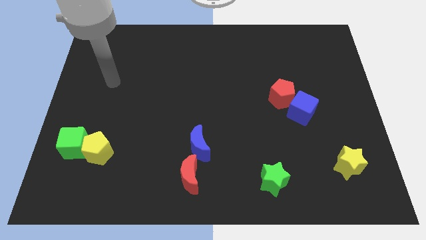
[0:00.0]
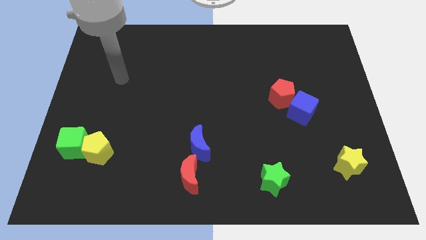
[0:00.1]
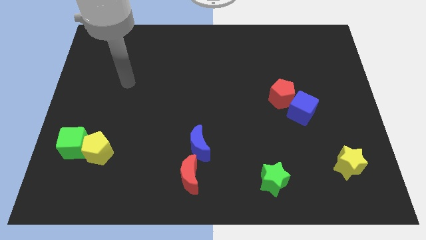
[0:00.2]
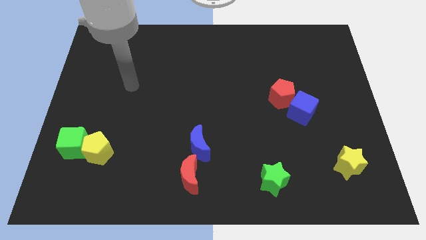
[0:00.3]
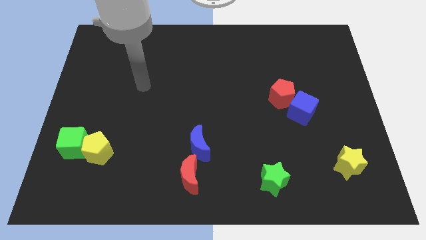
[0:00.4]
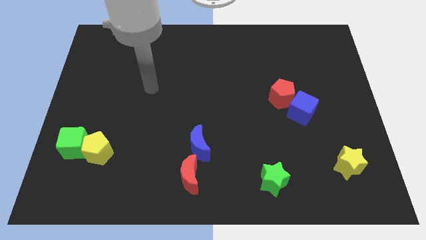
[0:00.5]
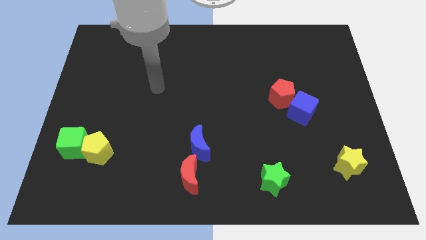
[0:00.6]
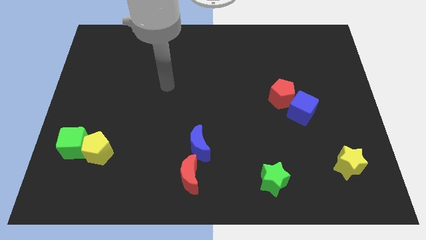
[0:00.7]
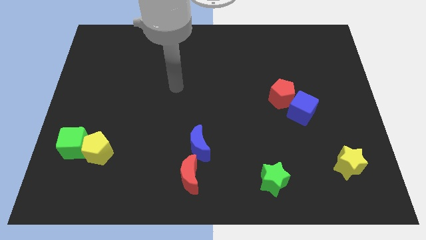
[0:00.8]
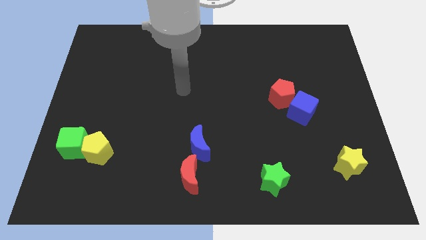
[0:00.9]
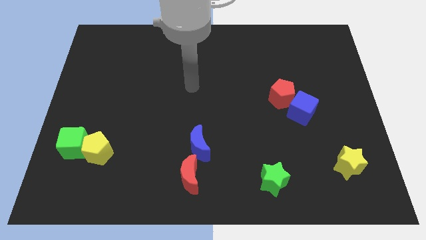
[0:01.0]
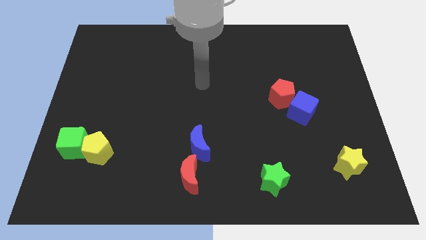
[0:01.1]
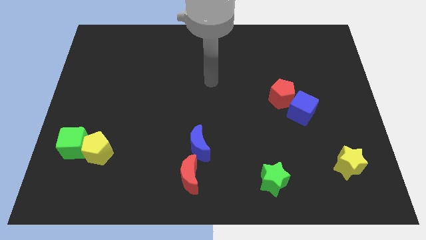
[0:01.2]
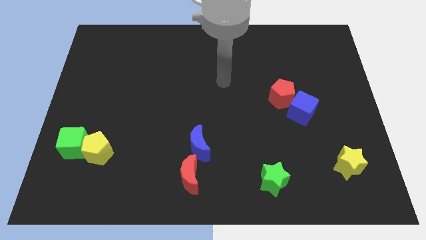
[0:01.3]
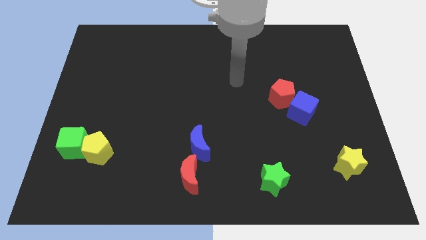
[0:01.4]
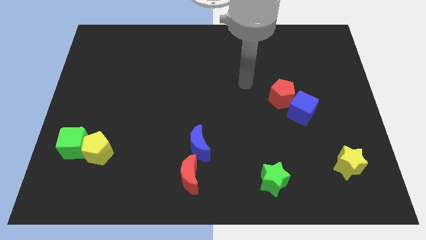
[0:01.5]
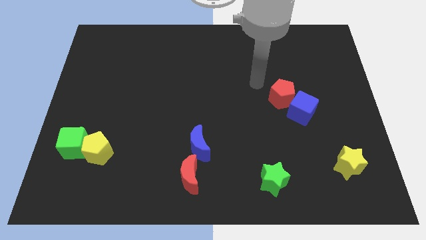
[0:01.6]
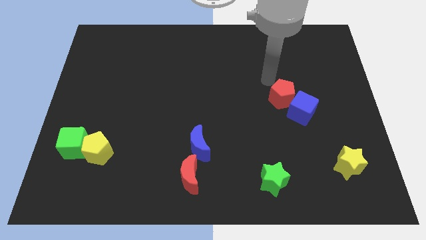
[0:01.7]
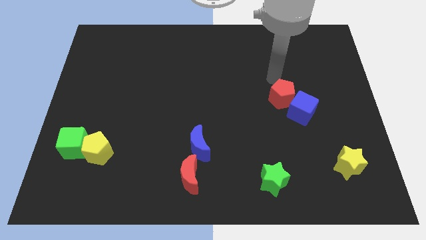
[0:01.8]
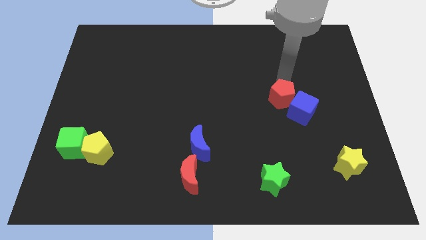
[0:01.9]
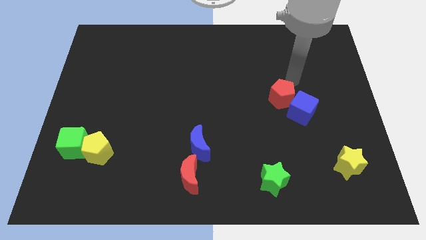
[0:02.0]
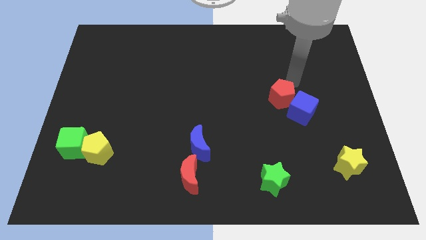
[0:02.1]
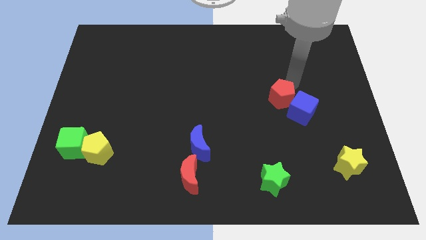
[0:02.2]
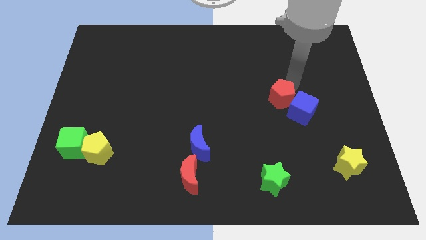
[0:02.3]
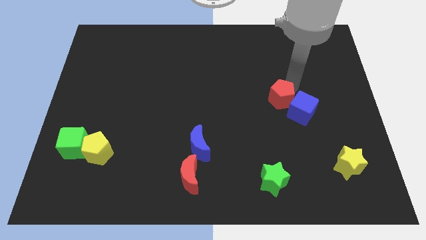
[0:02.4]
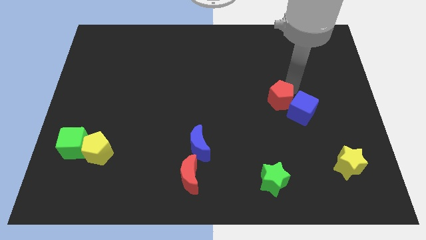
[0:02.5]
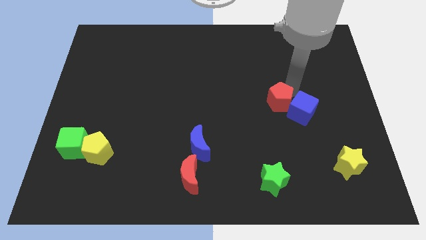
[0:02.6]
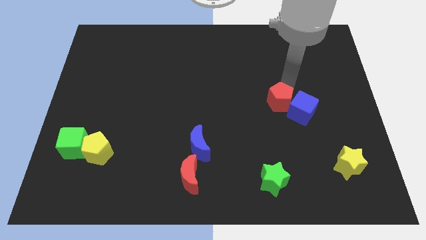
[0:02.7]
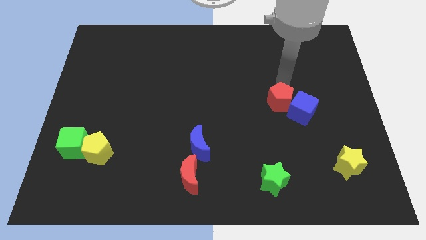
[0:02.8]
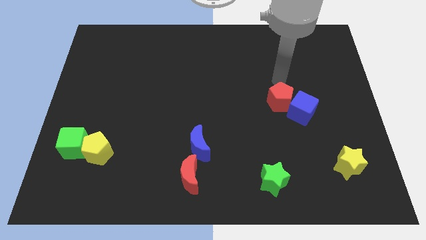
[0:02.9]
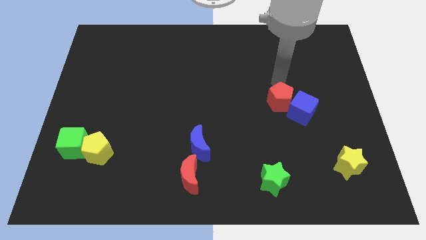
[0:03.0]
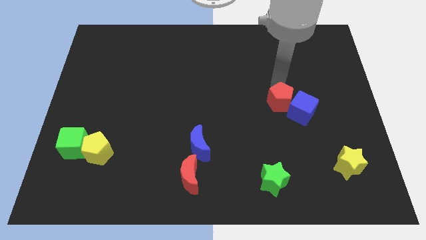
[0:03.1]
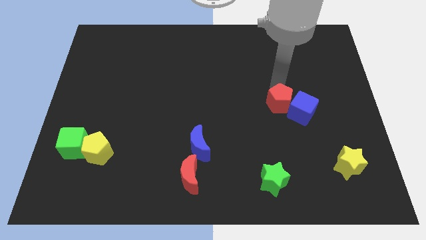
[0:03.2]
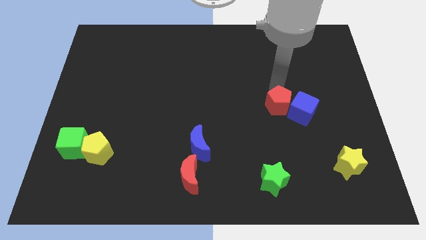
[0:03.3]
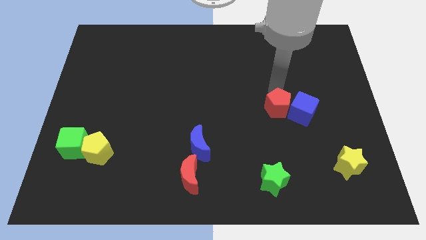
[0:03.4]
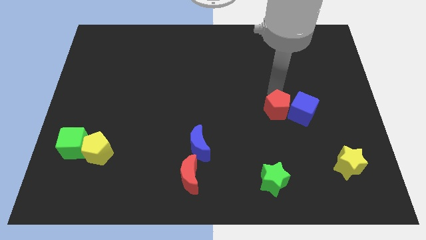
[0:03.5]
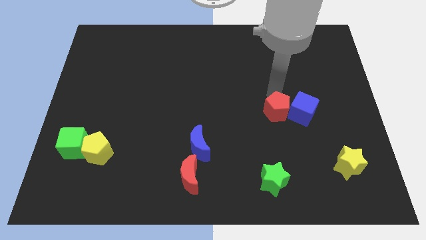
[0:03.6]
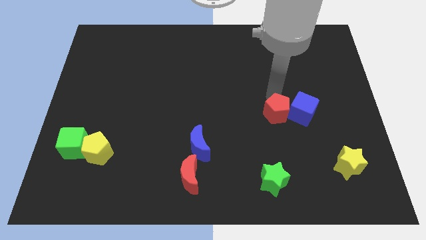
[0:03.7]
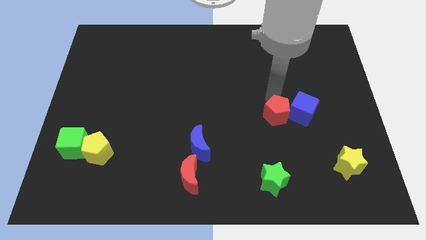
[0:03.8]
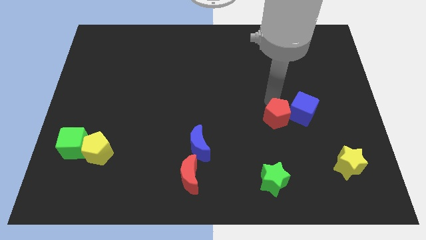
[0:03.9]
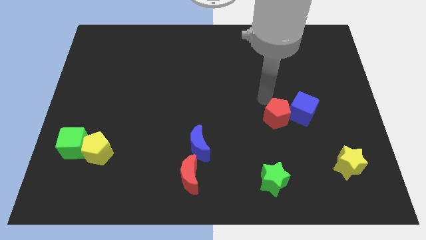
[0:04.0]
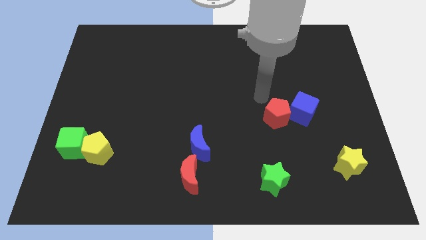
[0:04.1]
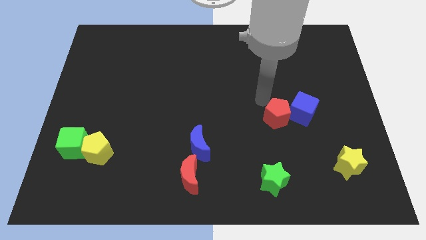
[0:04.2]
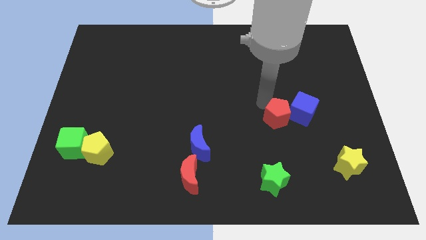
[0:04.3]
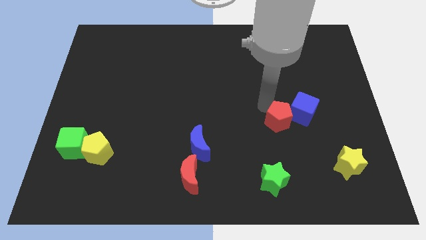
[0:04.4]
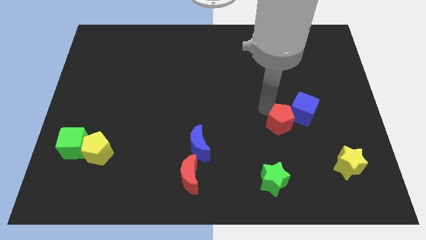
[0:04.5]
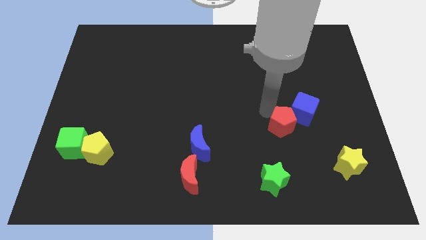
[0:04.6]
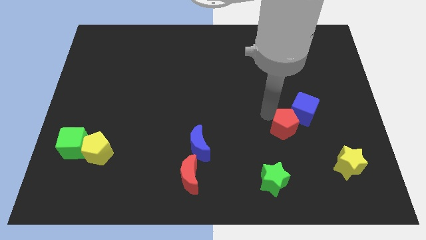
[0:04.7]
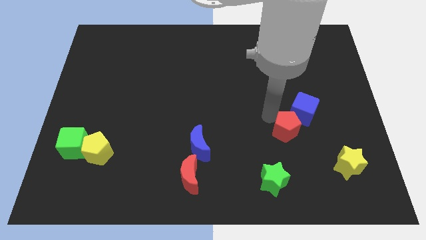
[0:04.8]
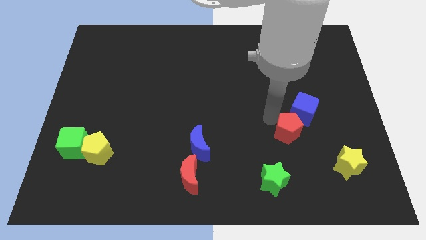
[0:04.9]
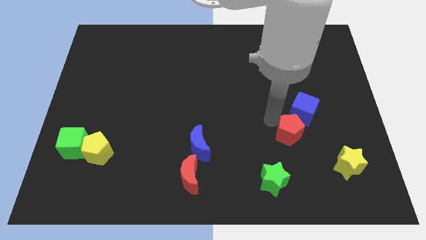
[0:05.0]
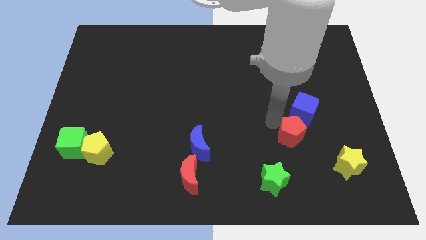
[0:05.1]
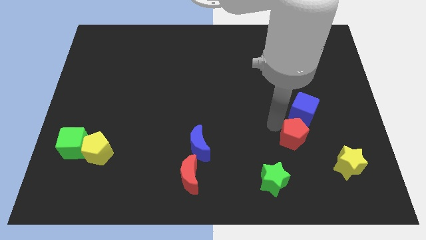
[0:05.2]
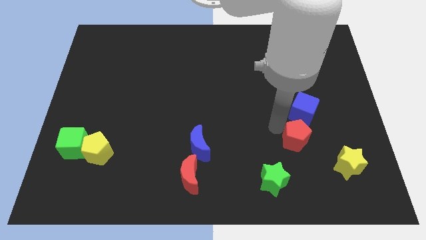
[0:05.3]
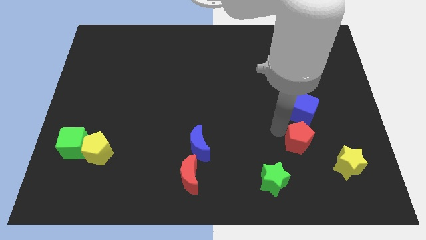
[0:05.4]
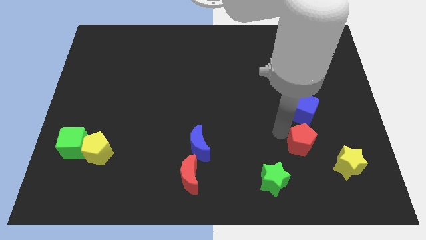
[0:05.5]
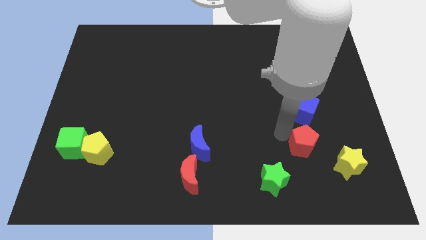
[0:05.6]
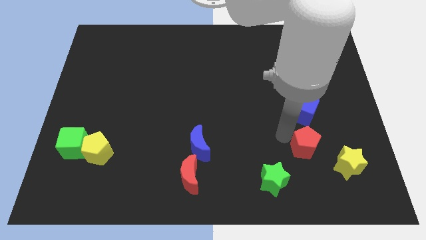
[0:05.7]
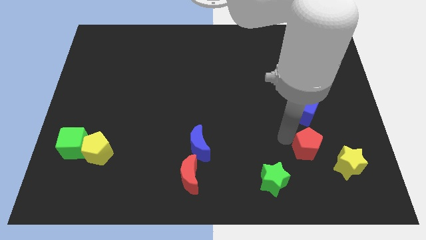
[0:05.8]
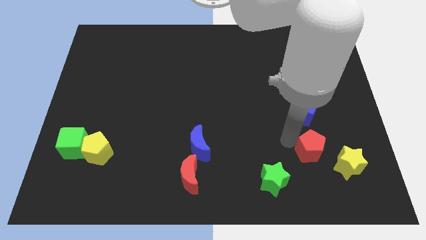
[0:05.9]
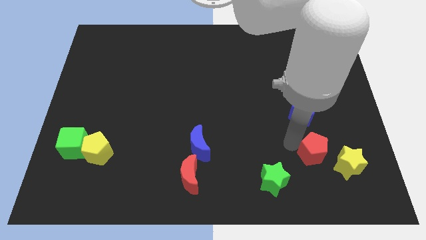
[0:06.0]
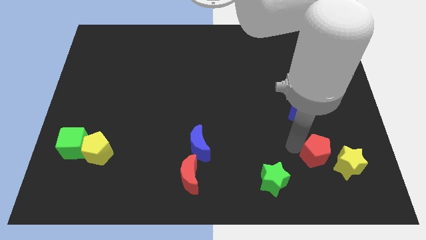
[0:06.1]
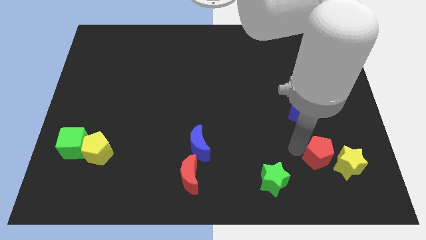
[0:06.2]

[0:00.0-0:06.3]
slide the red pentagon to the yellow star

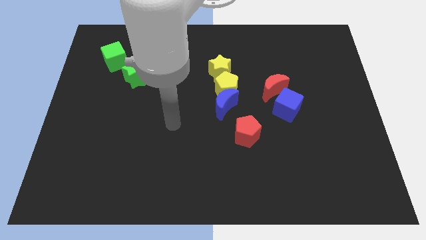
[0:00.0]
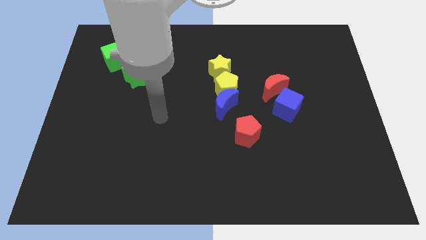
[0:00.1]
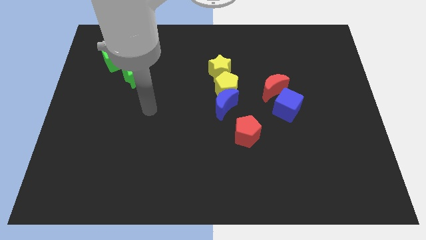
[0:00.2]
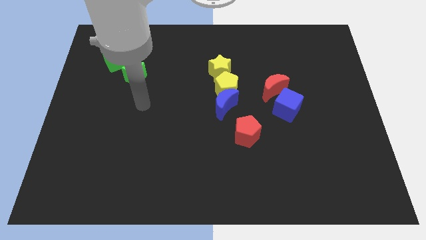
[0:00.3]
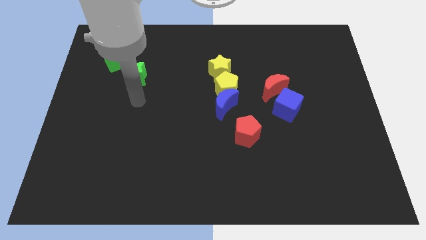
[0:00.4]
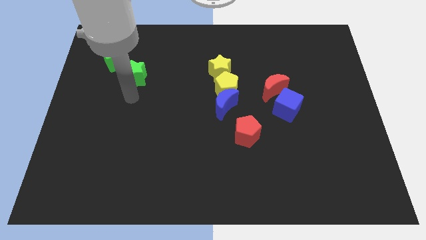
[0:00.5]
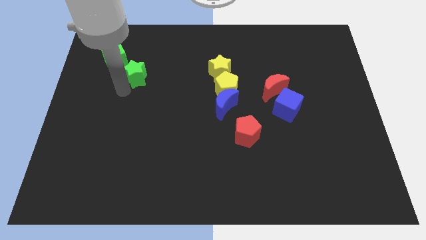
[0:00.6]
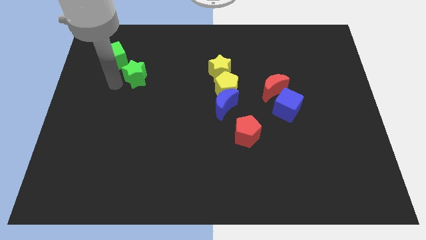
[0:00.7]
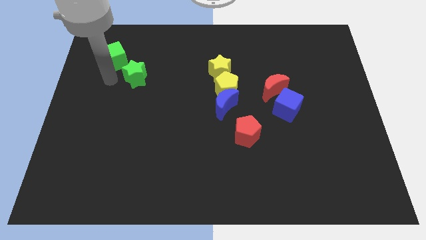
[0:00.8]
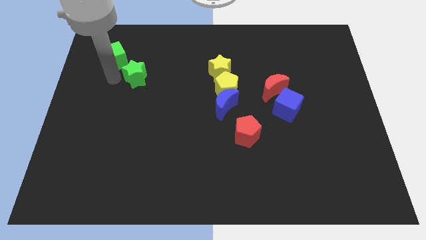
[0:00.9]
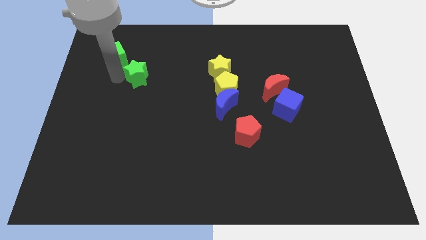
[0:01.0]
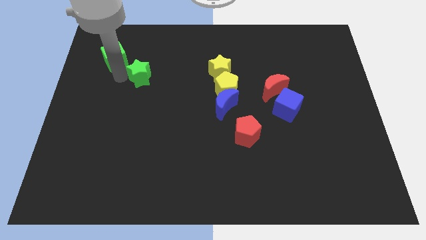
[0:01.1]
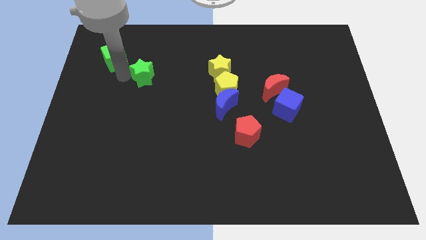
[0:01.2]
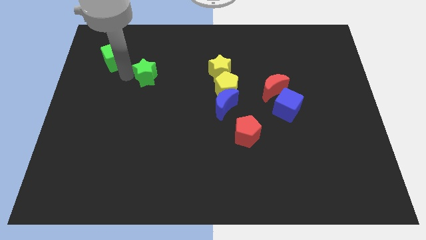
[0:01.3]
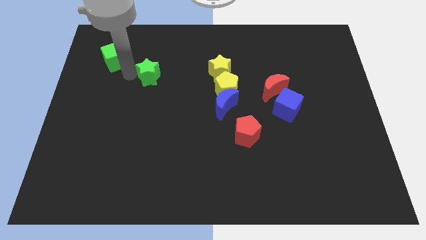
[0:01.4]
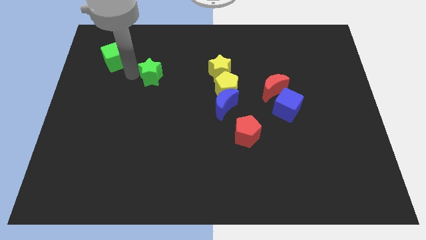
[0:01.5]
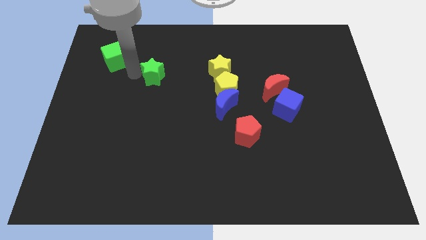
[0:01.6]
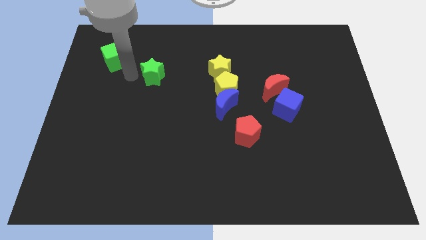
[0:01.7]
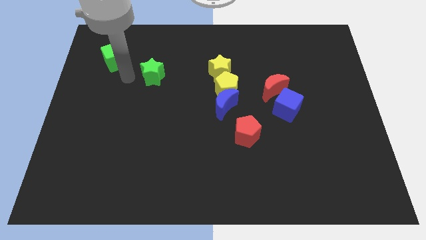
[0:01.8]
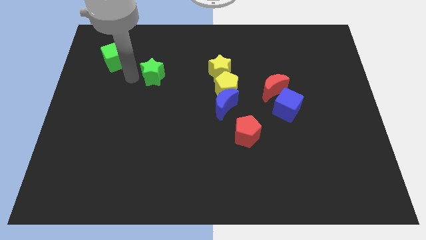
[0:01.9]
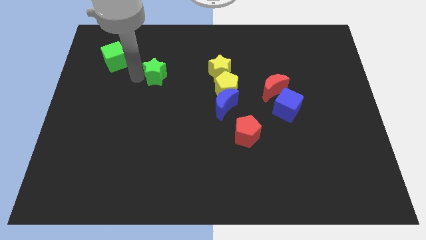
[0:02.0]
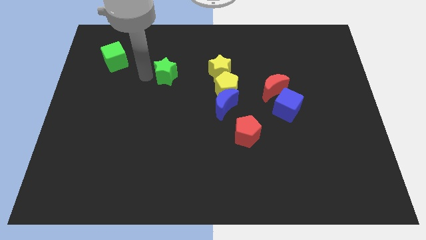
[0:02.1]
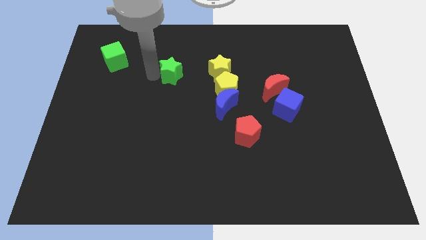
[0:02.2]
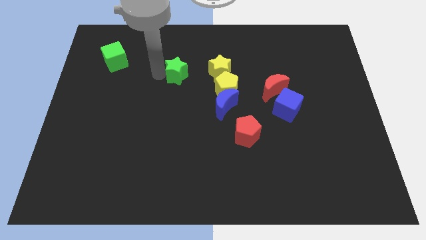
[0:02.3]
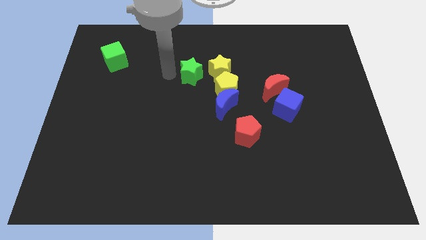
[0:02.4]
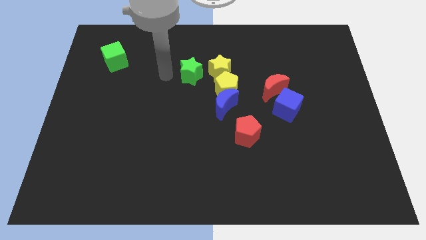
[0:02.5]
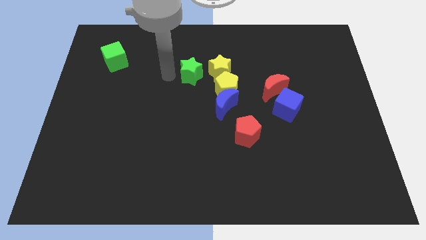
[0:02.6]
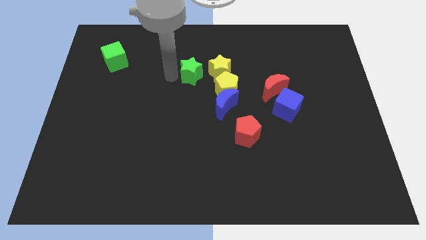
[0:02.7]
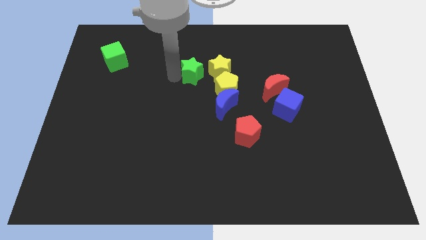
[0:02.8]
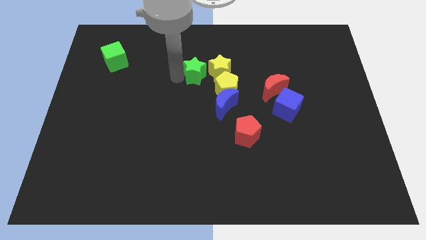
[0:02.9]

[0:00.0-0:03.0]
move the green star close to the yellow star
